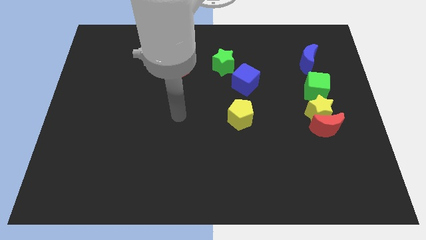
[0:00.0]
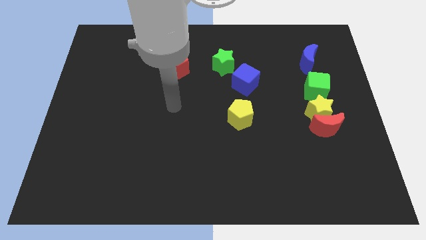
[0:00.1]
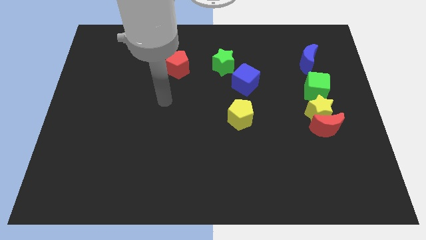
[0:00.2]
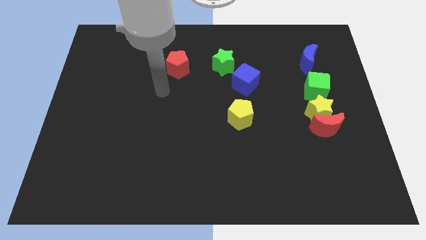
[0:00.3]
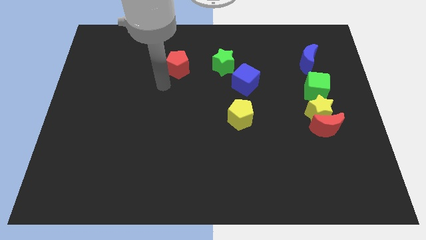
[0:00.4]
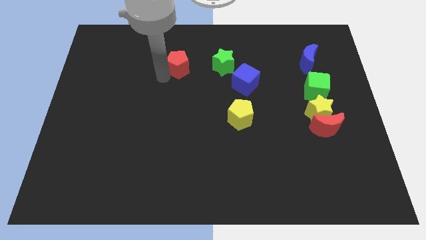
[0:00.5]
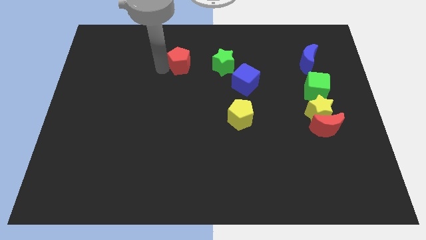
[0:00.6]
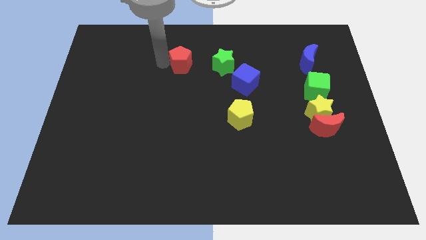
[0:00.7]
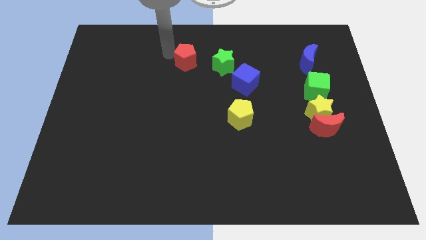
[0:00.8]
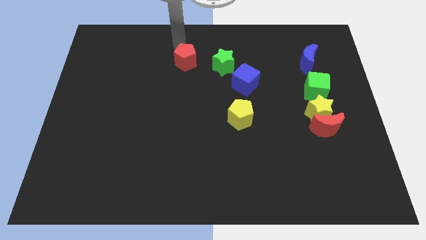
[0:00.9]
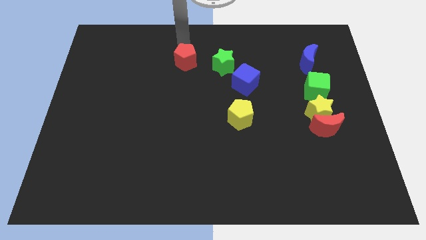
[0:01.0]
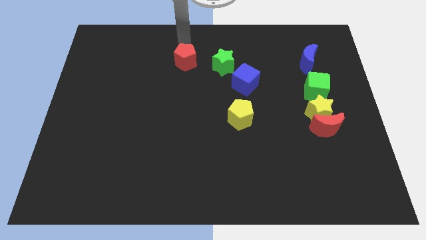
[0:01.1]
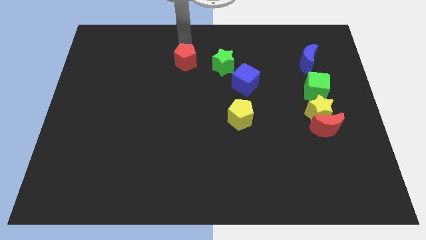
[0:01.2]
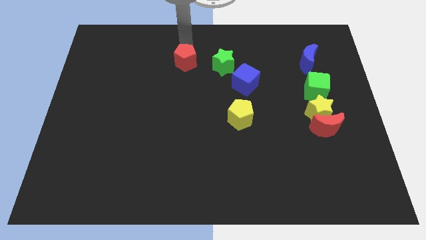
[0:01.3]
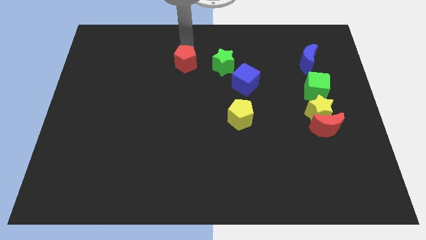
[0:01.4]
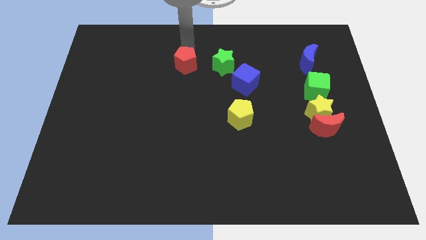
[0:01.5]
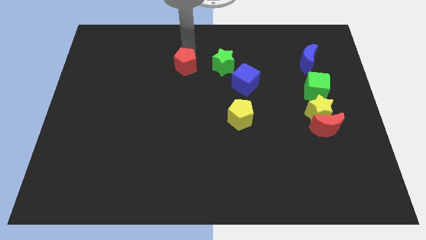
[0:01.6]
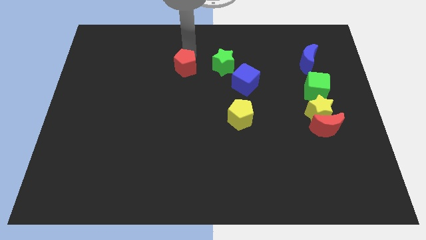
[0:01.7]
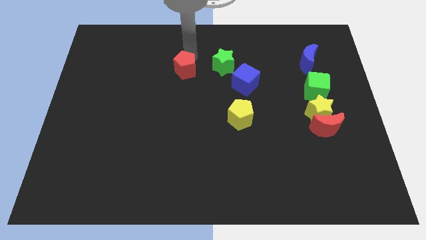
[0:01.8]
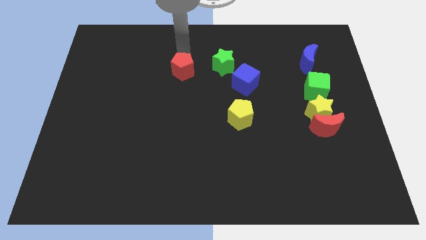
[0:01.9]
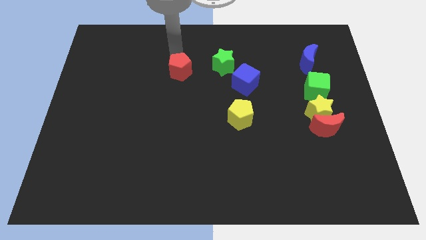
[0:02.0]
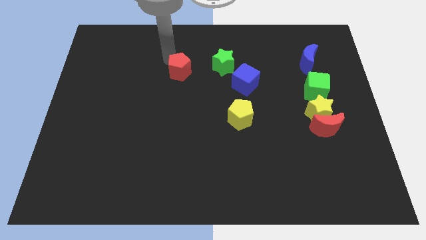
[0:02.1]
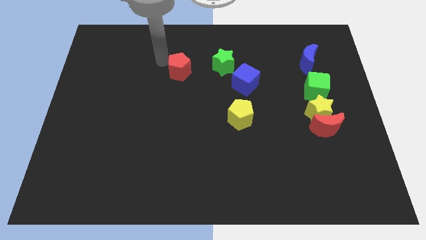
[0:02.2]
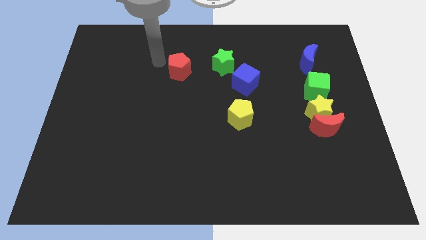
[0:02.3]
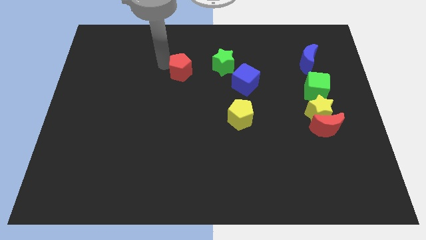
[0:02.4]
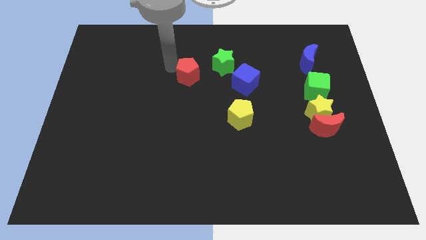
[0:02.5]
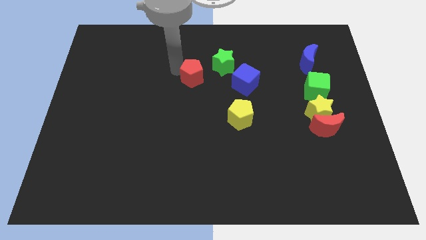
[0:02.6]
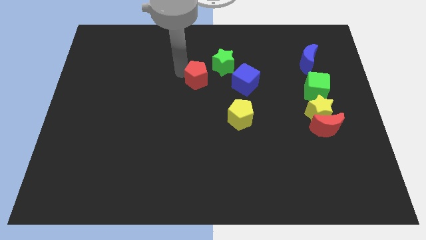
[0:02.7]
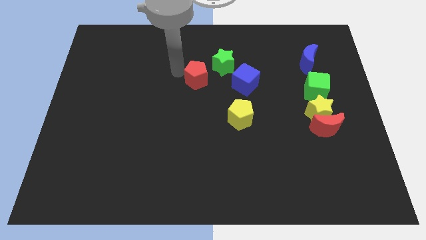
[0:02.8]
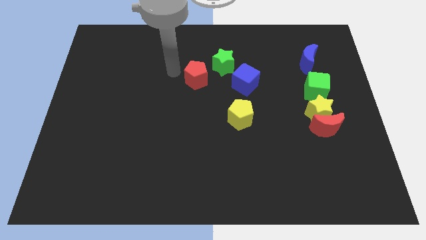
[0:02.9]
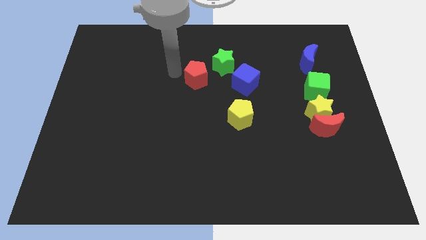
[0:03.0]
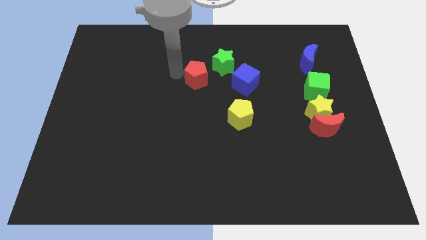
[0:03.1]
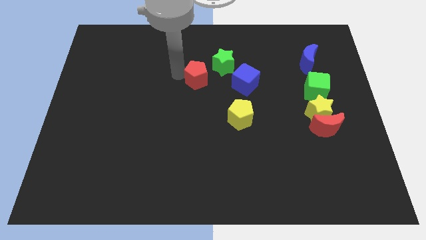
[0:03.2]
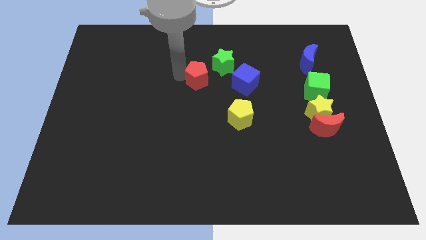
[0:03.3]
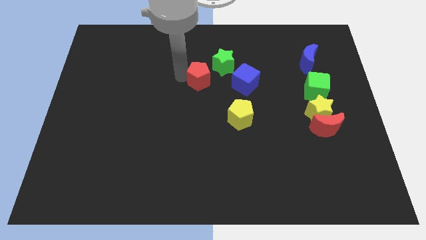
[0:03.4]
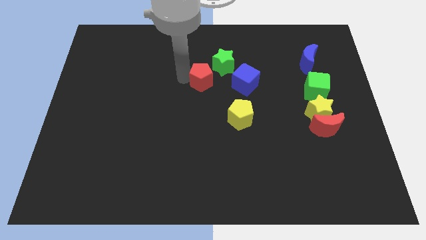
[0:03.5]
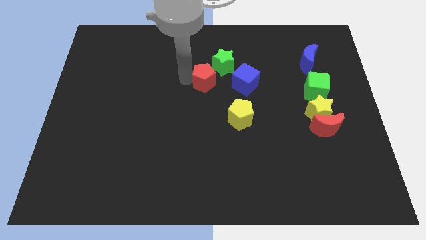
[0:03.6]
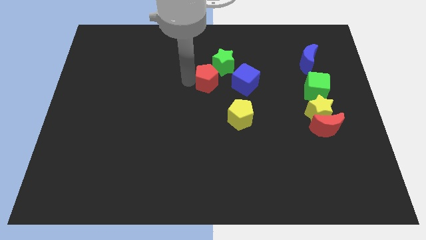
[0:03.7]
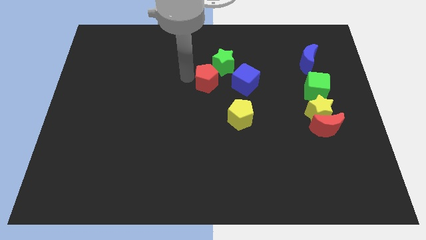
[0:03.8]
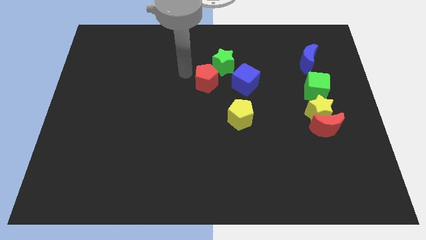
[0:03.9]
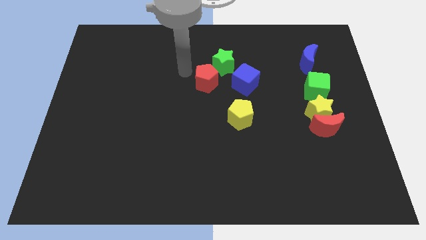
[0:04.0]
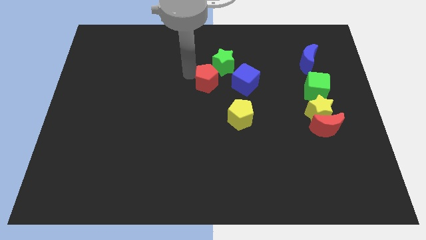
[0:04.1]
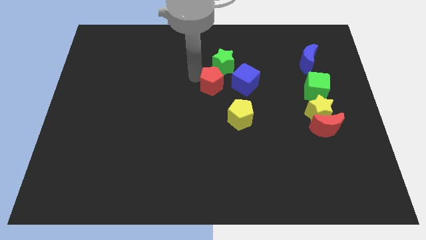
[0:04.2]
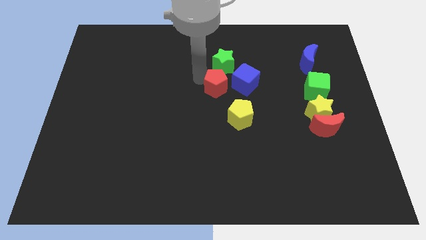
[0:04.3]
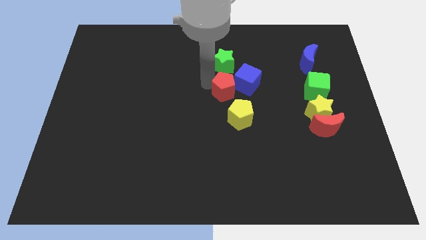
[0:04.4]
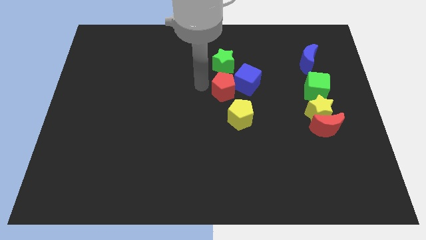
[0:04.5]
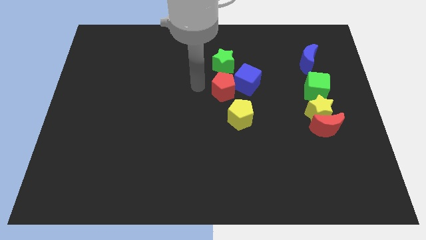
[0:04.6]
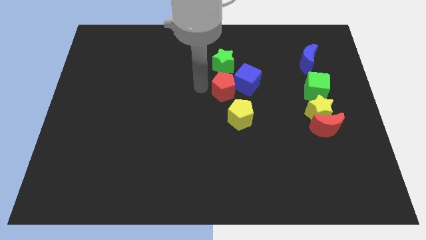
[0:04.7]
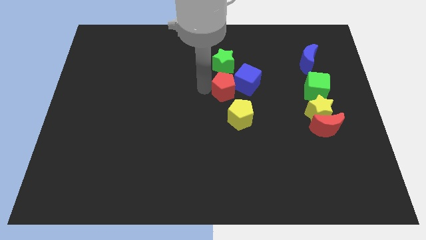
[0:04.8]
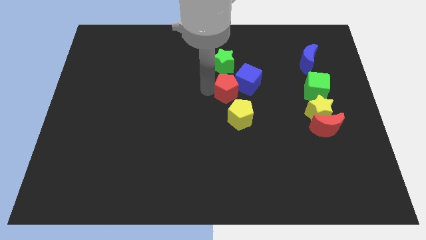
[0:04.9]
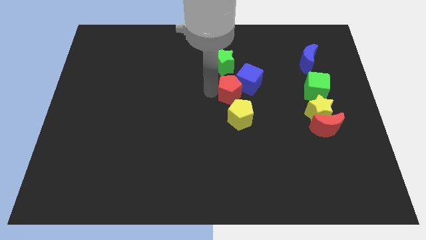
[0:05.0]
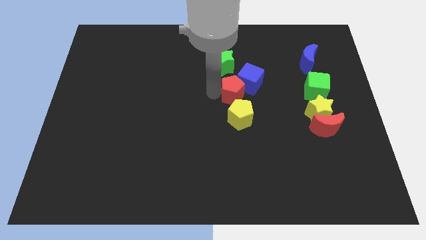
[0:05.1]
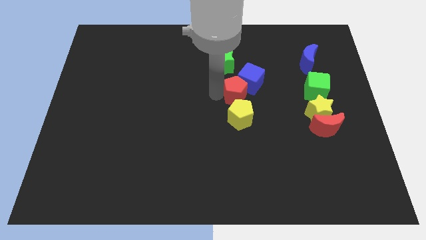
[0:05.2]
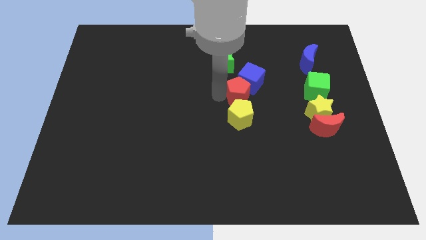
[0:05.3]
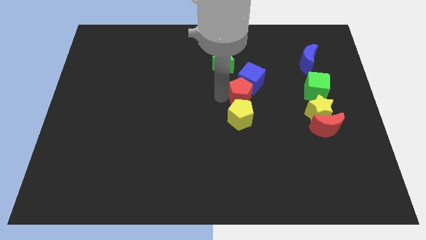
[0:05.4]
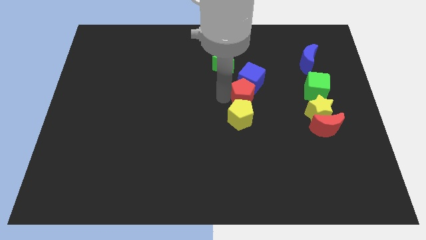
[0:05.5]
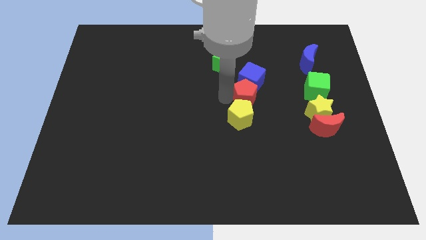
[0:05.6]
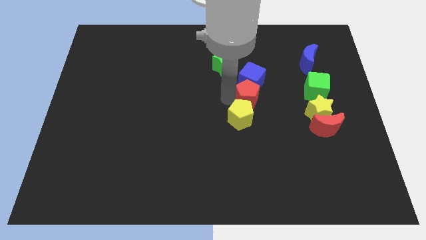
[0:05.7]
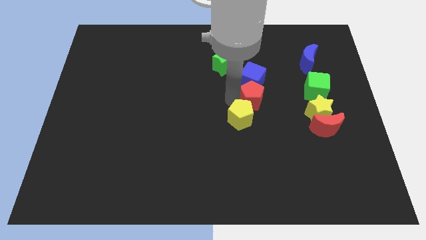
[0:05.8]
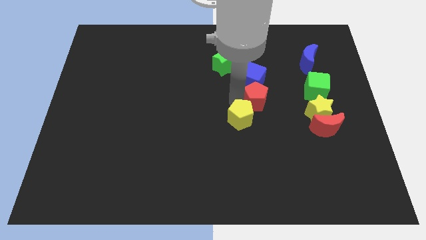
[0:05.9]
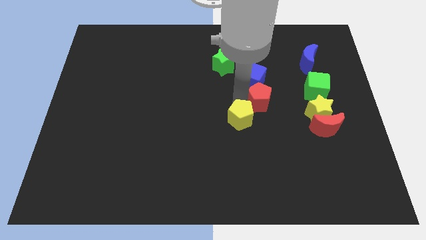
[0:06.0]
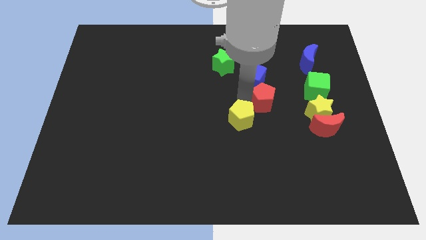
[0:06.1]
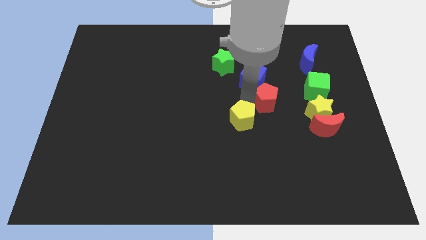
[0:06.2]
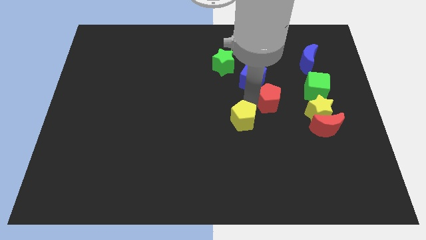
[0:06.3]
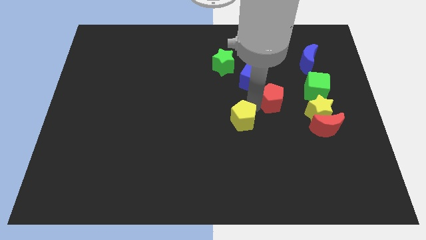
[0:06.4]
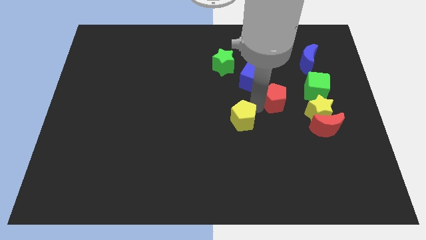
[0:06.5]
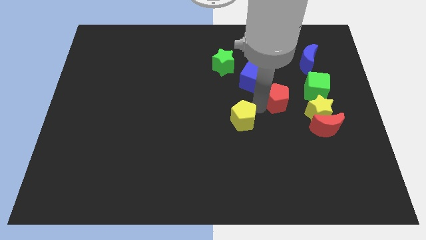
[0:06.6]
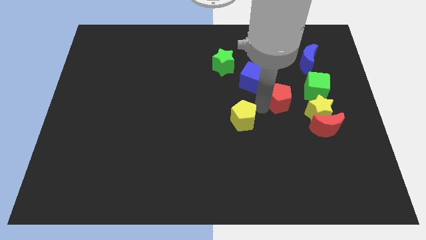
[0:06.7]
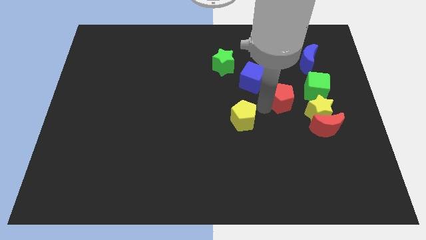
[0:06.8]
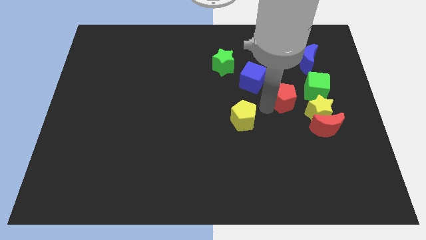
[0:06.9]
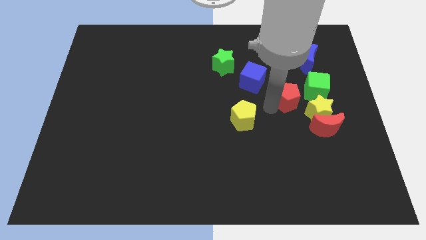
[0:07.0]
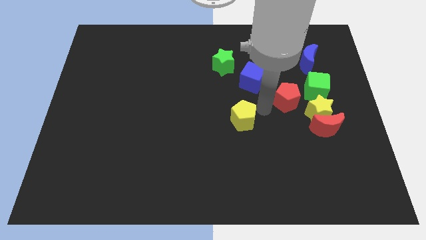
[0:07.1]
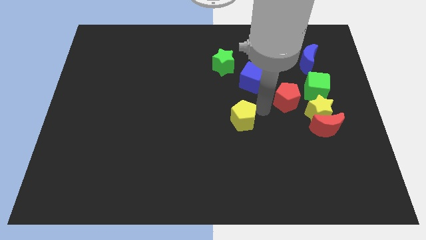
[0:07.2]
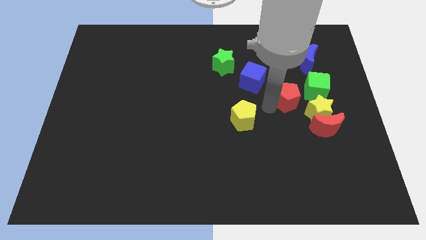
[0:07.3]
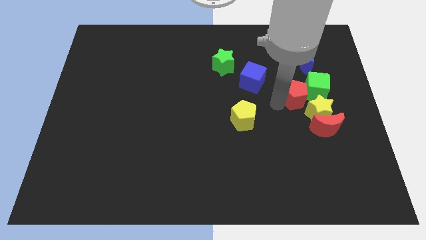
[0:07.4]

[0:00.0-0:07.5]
push the red pentagon to the green cube

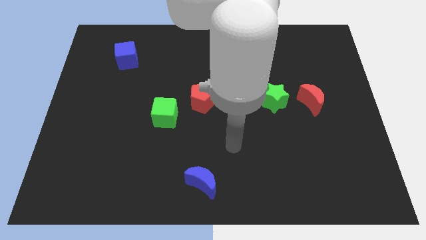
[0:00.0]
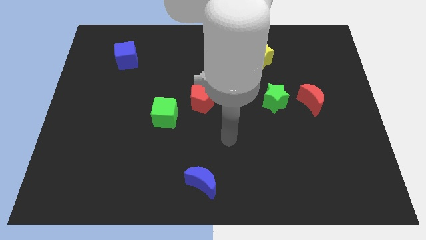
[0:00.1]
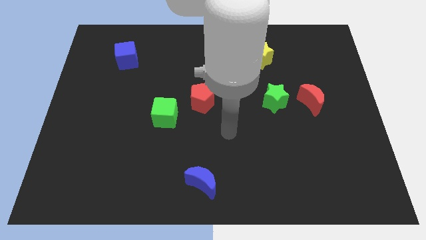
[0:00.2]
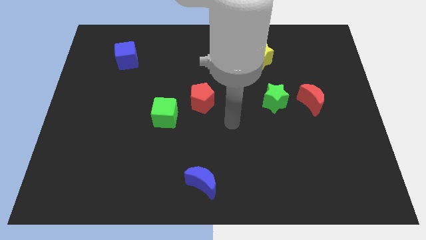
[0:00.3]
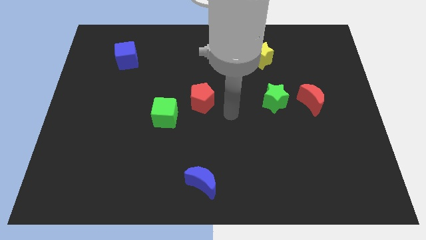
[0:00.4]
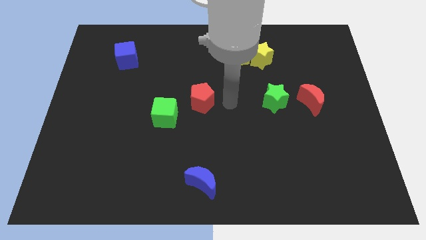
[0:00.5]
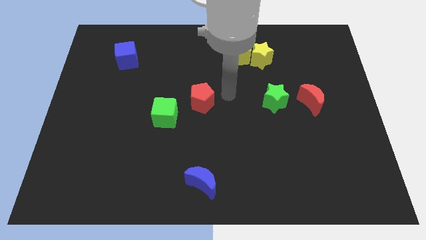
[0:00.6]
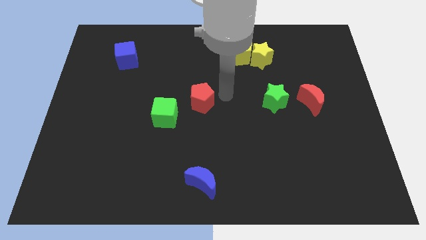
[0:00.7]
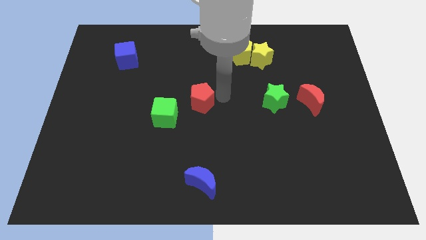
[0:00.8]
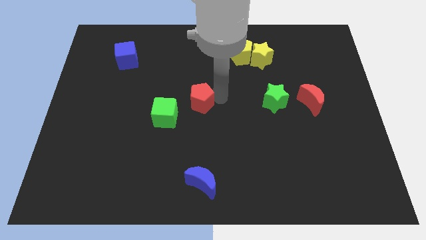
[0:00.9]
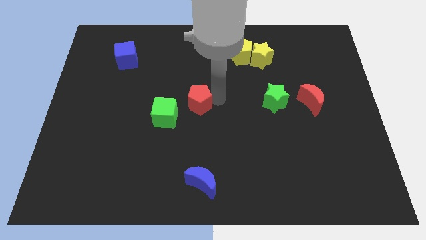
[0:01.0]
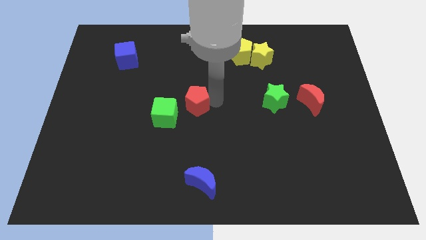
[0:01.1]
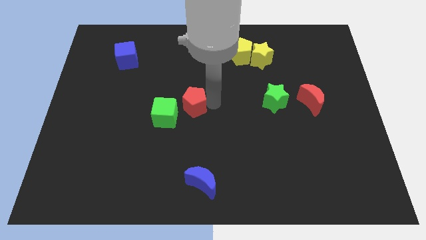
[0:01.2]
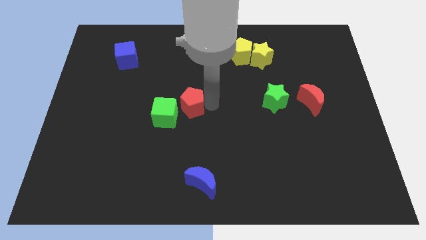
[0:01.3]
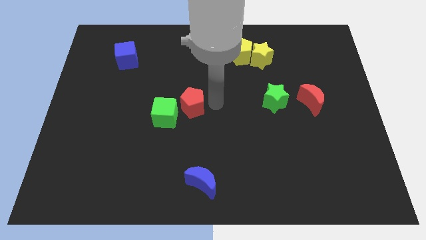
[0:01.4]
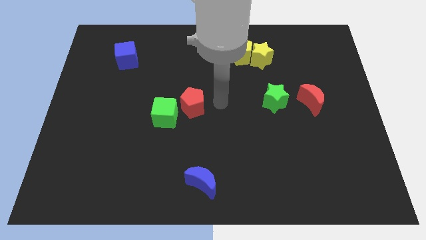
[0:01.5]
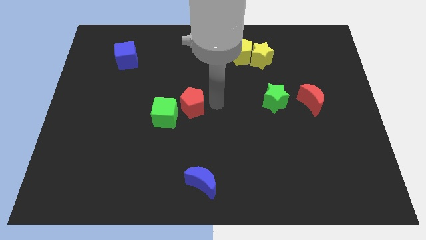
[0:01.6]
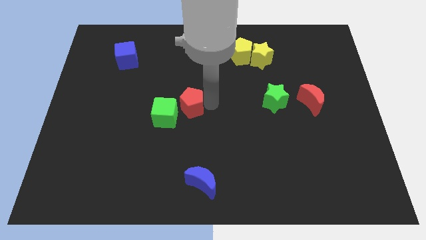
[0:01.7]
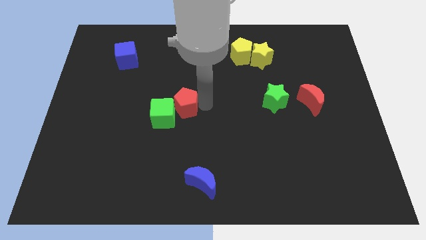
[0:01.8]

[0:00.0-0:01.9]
move the red pentagon towards the green cube
